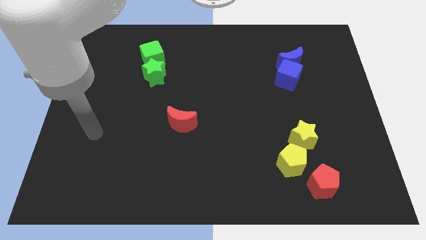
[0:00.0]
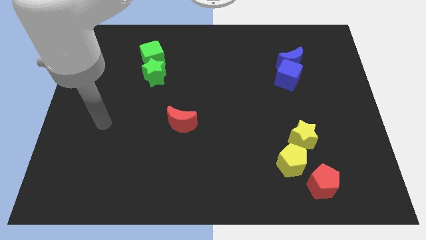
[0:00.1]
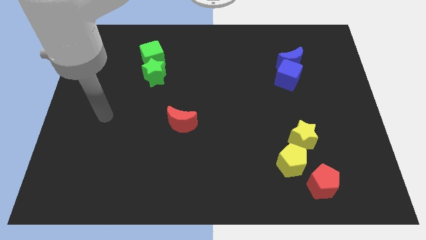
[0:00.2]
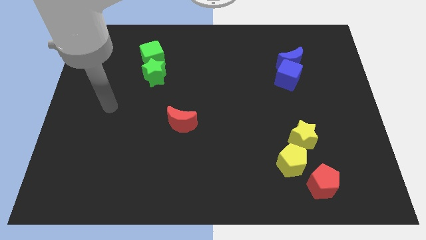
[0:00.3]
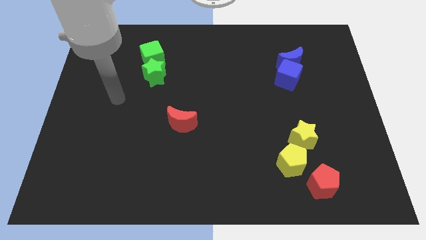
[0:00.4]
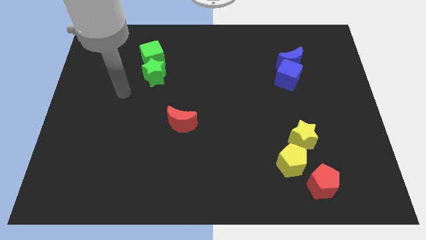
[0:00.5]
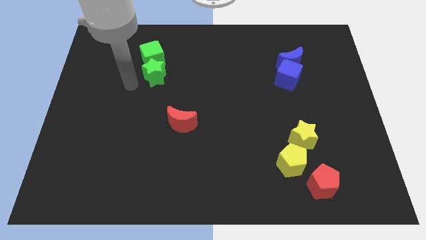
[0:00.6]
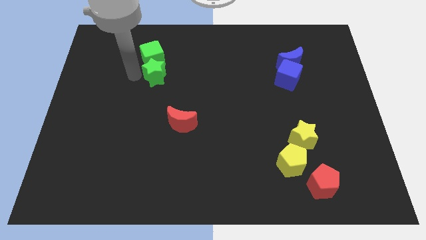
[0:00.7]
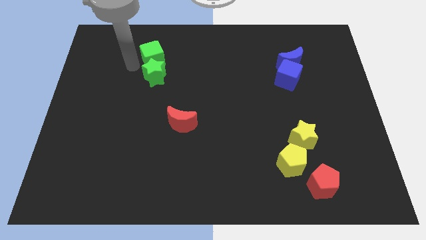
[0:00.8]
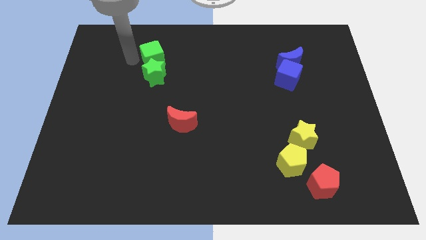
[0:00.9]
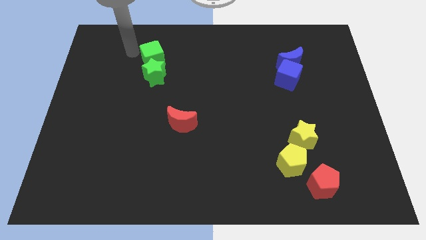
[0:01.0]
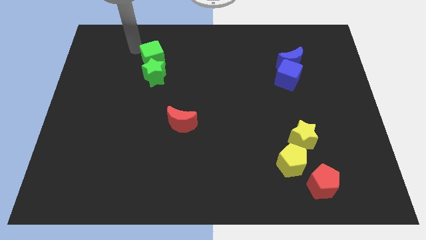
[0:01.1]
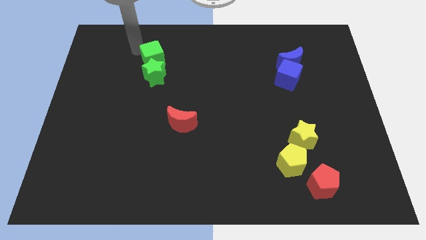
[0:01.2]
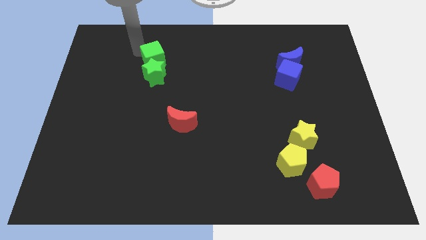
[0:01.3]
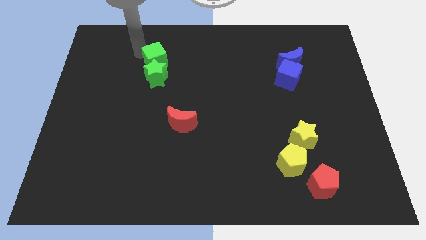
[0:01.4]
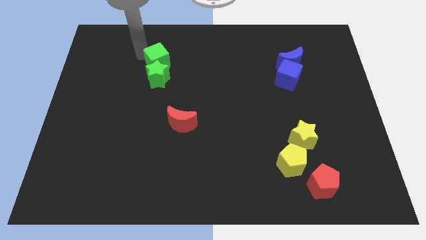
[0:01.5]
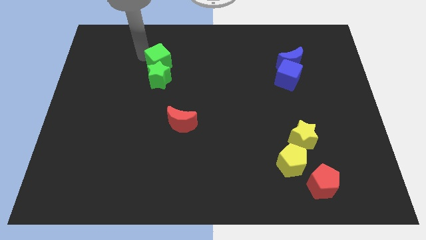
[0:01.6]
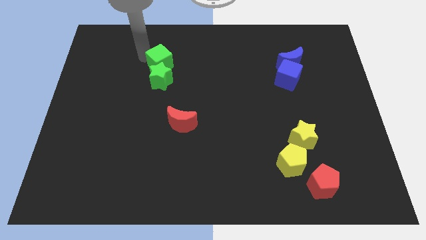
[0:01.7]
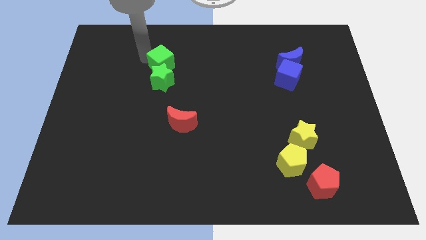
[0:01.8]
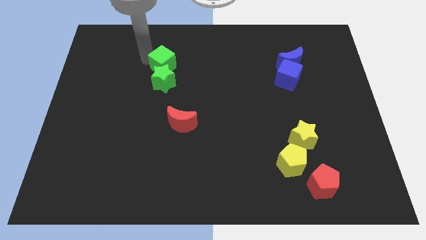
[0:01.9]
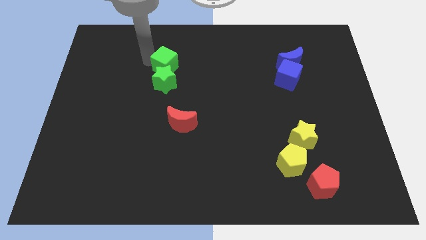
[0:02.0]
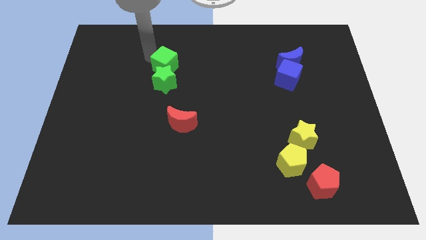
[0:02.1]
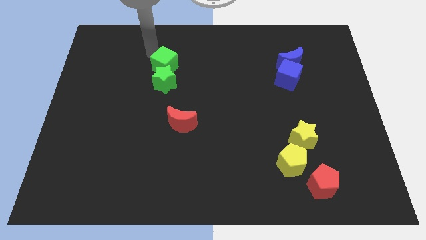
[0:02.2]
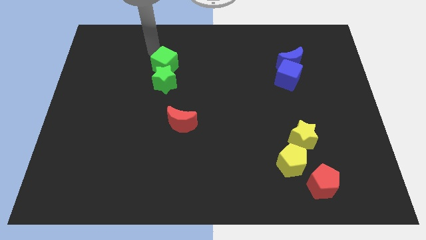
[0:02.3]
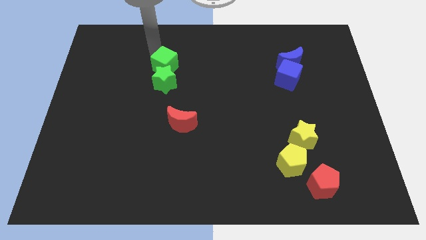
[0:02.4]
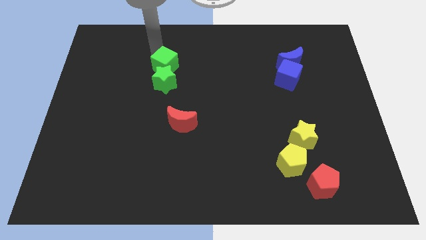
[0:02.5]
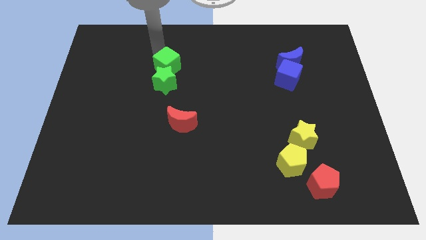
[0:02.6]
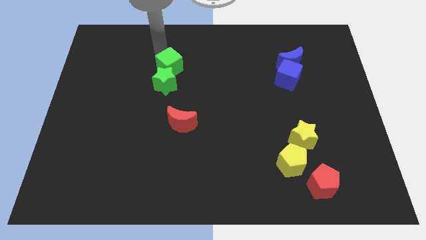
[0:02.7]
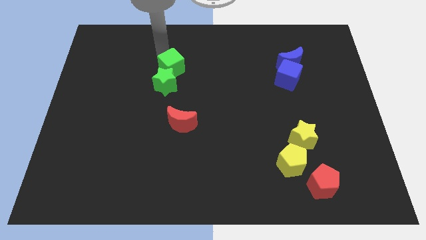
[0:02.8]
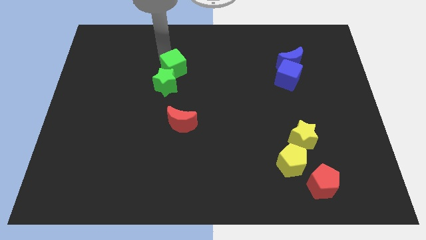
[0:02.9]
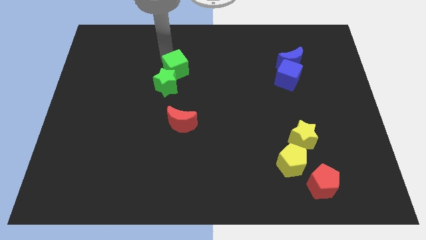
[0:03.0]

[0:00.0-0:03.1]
slightly move the green cube diagonally down and right

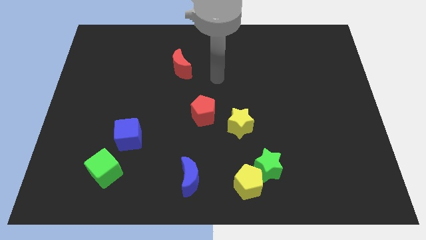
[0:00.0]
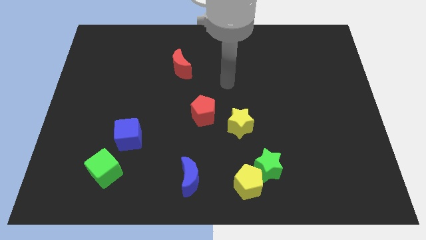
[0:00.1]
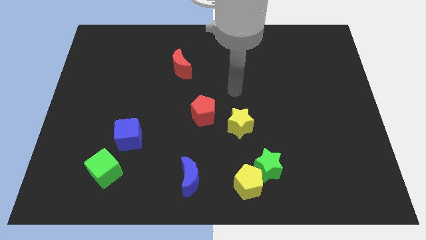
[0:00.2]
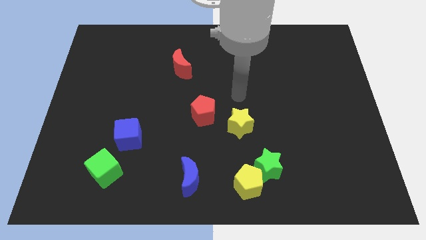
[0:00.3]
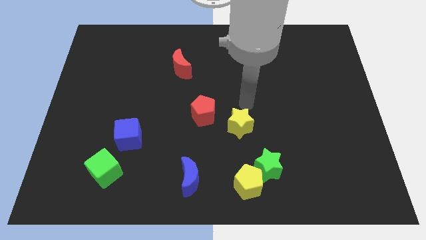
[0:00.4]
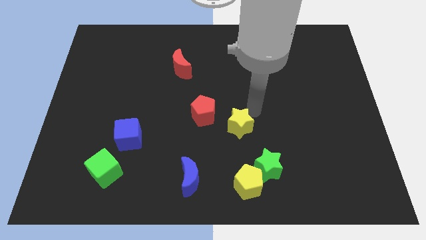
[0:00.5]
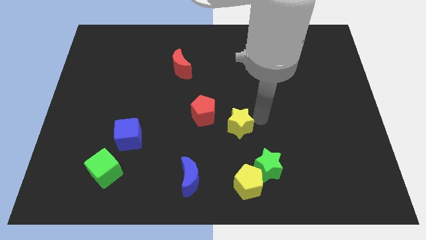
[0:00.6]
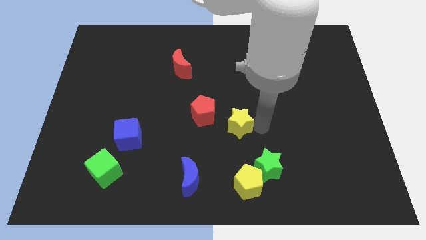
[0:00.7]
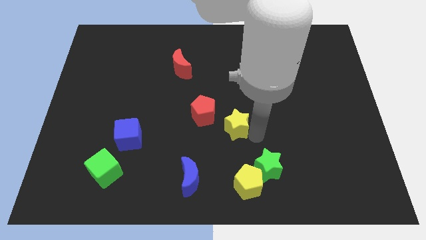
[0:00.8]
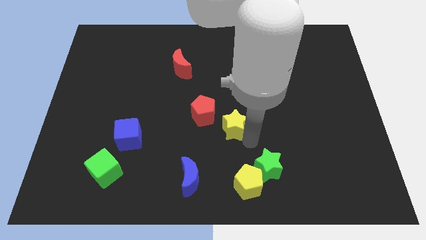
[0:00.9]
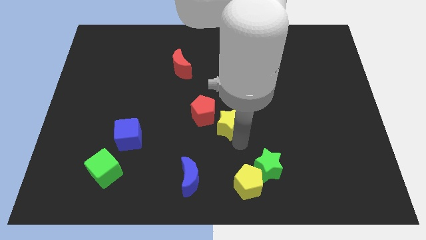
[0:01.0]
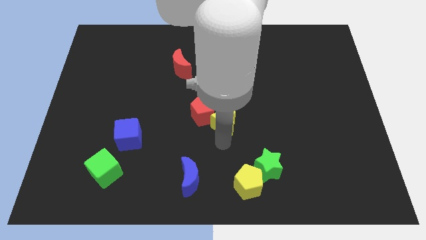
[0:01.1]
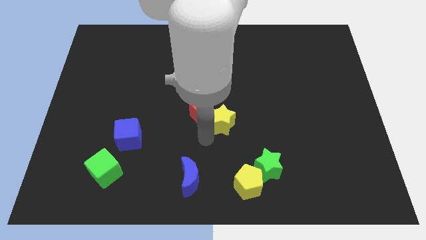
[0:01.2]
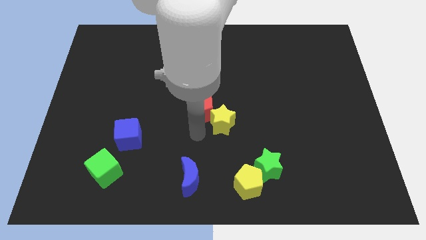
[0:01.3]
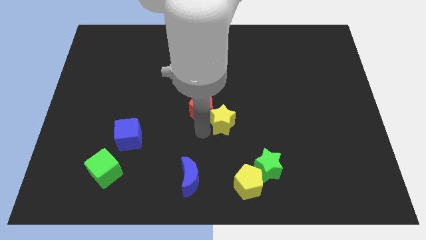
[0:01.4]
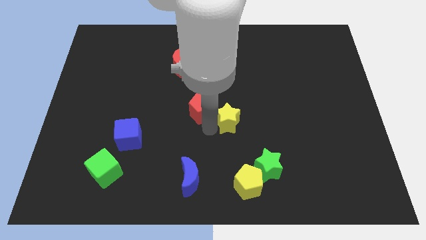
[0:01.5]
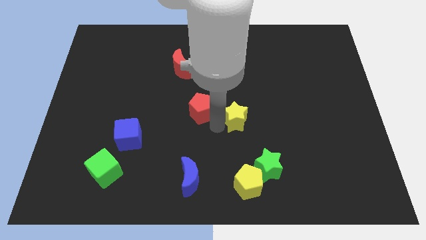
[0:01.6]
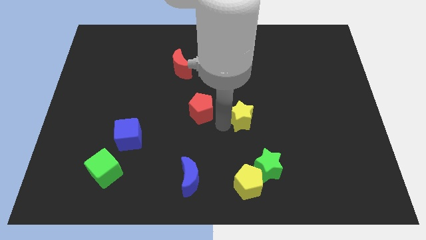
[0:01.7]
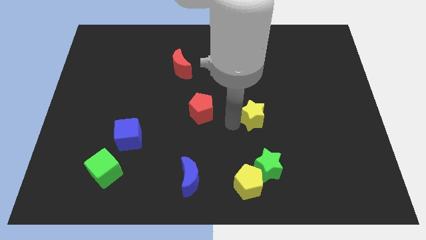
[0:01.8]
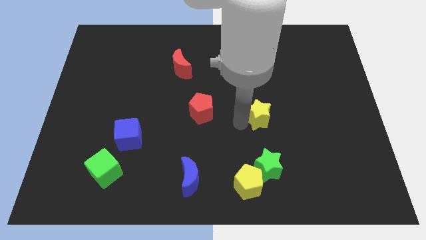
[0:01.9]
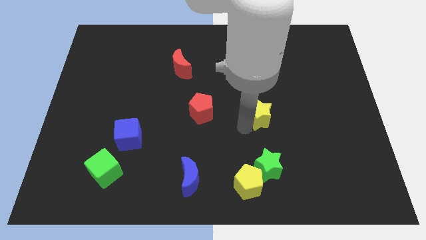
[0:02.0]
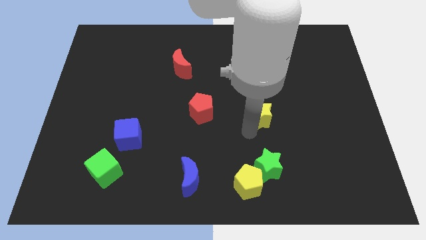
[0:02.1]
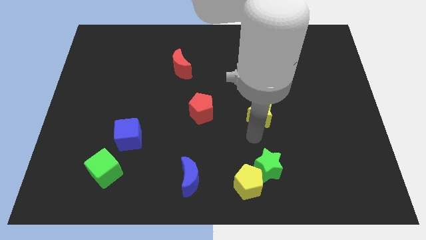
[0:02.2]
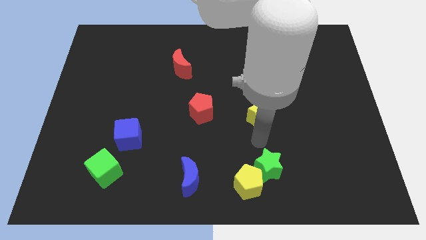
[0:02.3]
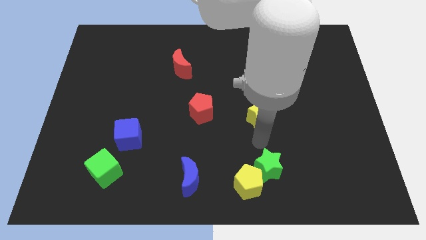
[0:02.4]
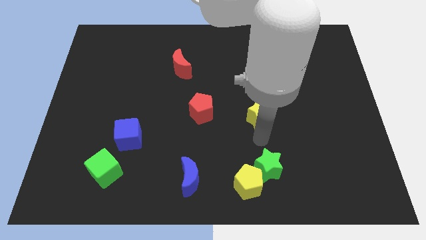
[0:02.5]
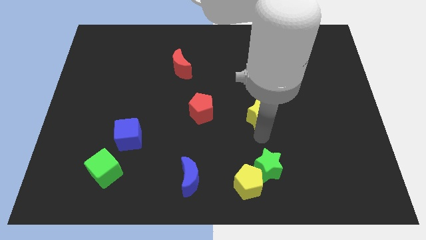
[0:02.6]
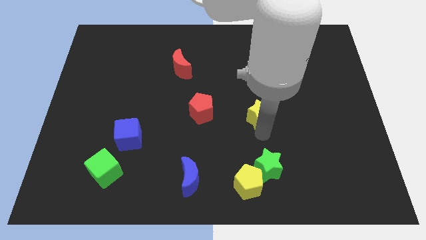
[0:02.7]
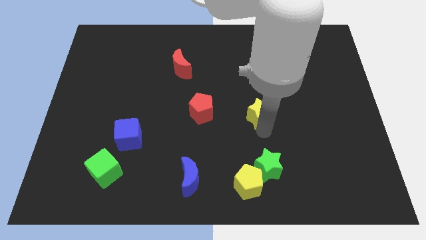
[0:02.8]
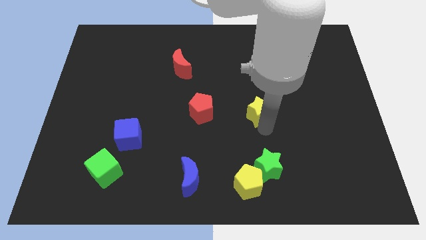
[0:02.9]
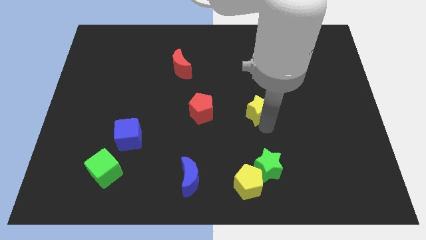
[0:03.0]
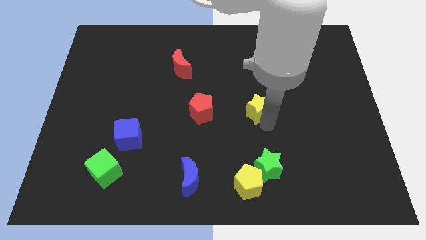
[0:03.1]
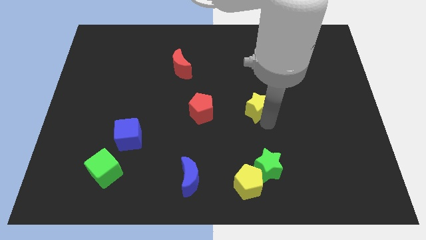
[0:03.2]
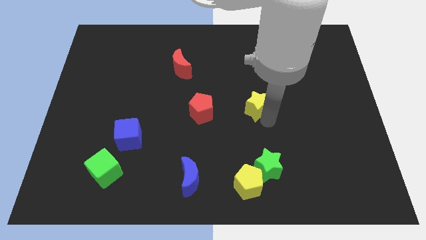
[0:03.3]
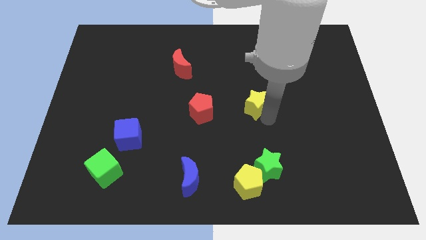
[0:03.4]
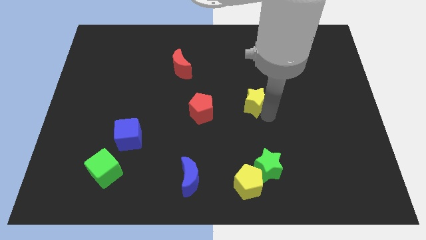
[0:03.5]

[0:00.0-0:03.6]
move the yellow star somewhat upwards and to the right diagonally

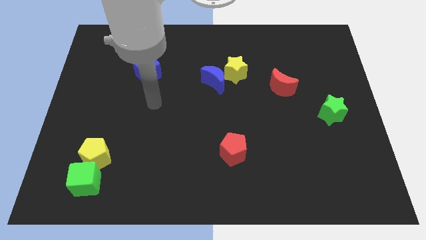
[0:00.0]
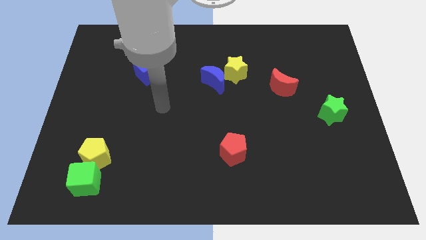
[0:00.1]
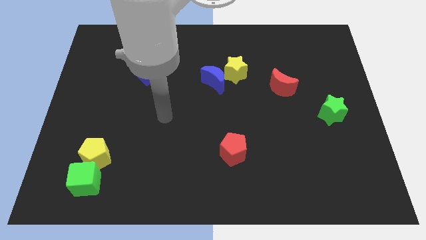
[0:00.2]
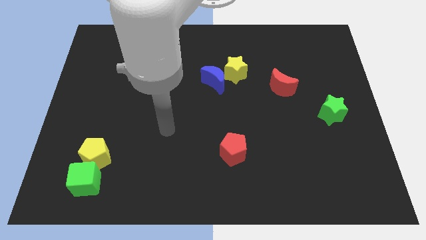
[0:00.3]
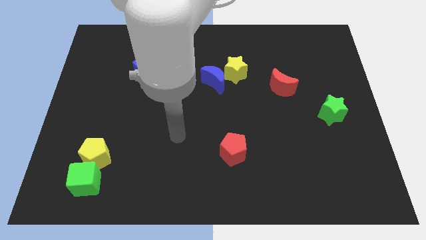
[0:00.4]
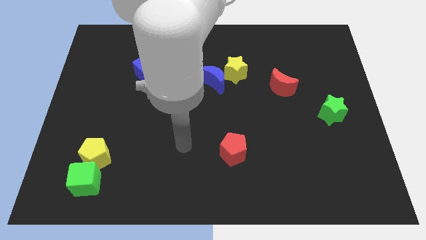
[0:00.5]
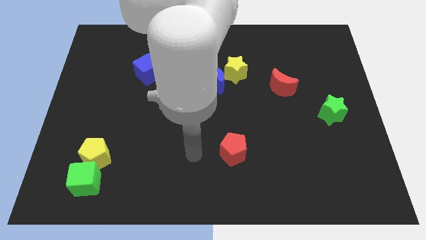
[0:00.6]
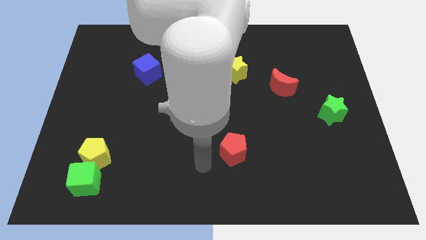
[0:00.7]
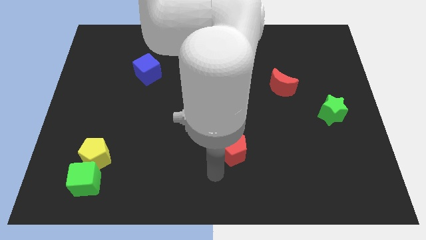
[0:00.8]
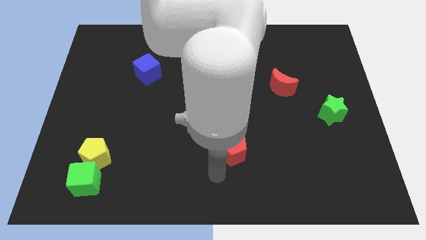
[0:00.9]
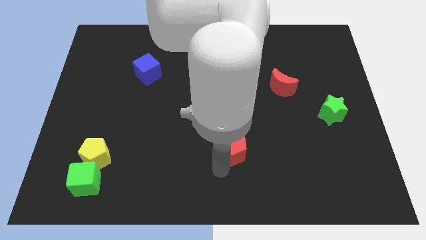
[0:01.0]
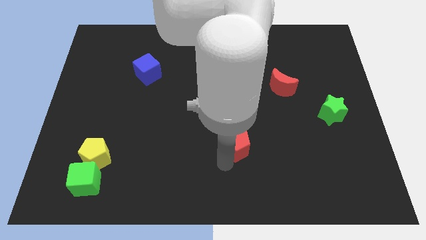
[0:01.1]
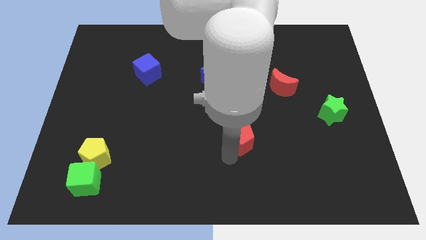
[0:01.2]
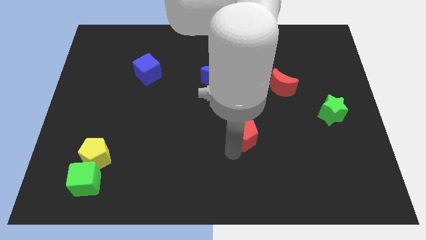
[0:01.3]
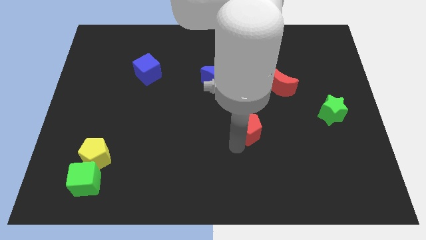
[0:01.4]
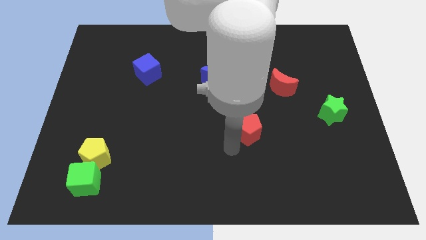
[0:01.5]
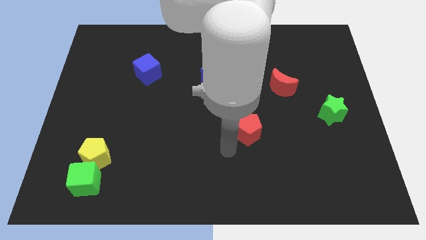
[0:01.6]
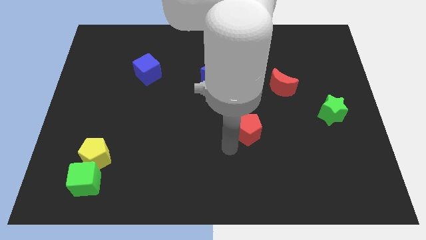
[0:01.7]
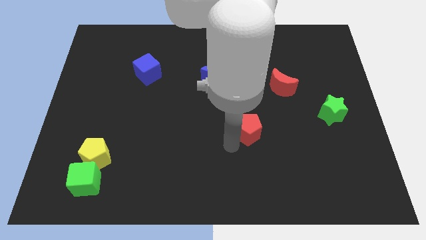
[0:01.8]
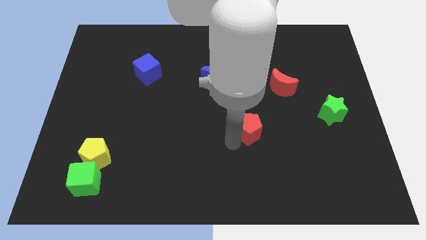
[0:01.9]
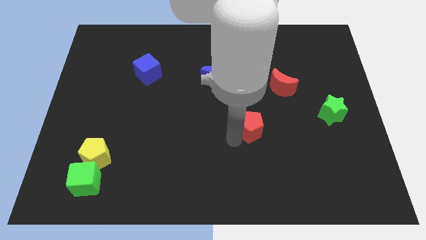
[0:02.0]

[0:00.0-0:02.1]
slightly push the red pentagon upwards and to the right diagonally
